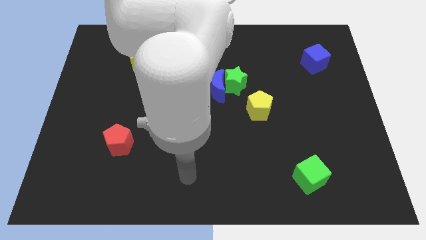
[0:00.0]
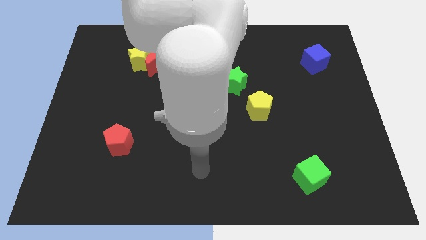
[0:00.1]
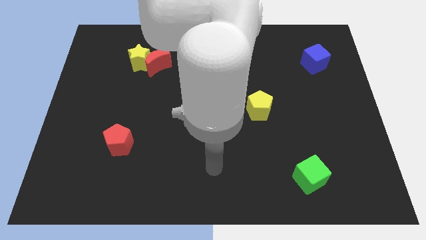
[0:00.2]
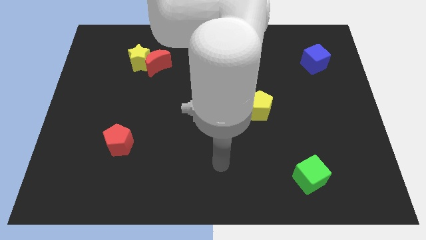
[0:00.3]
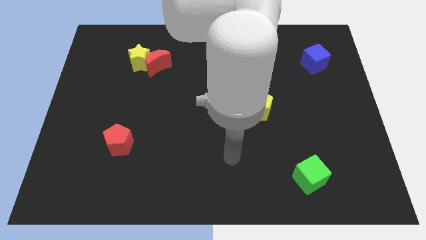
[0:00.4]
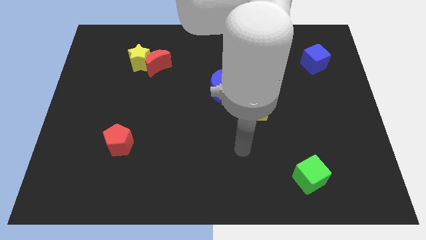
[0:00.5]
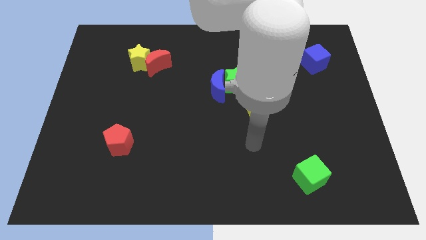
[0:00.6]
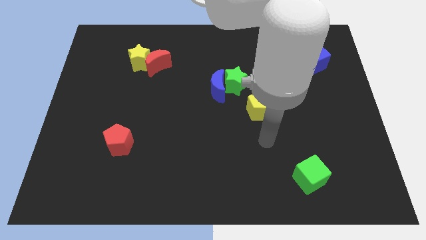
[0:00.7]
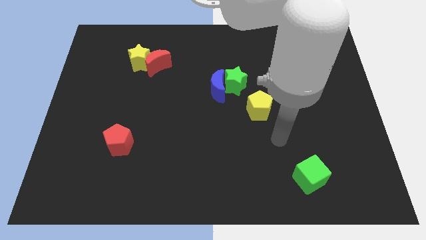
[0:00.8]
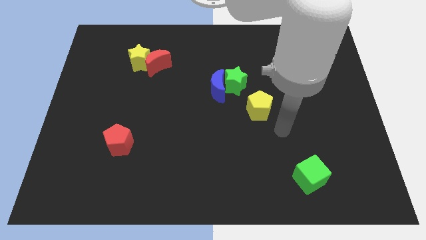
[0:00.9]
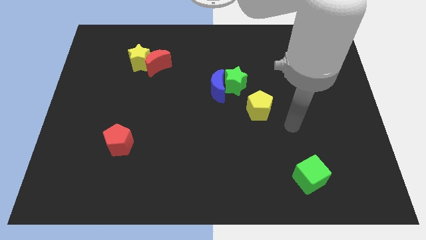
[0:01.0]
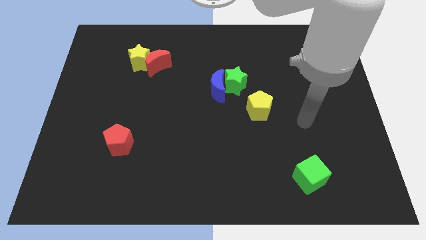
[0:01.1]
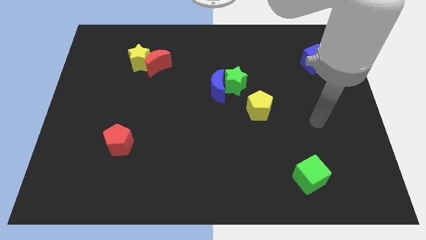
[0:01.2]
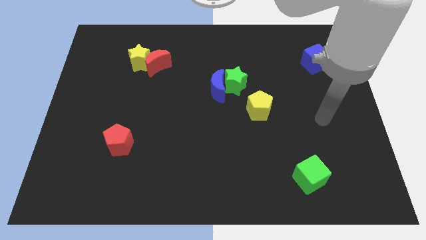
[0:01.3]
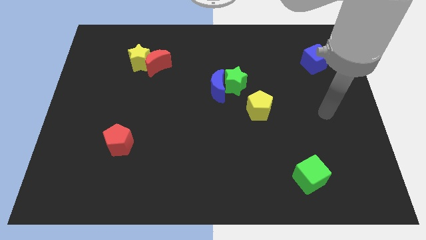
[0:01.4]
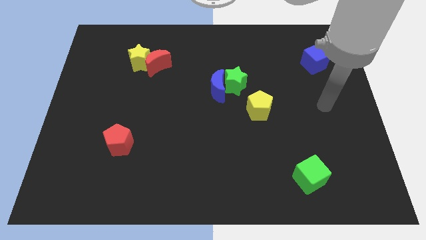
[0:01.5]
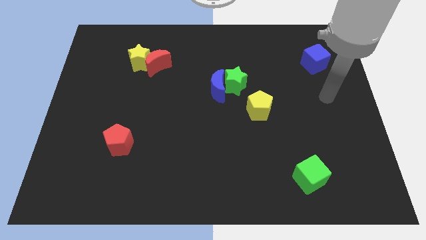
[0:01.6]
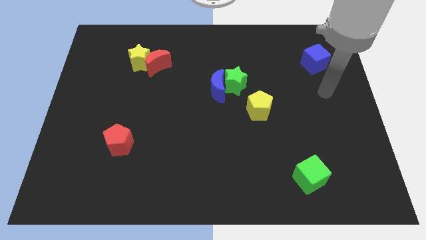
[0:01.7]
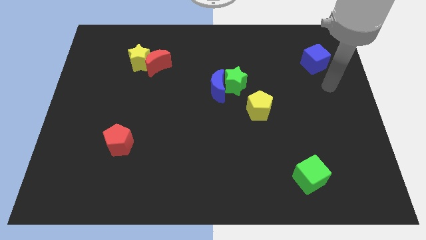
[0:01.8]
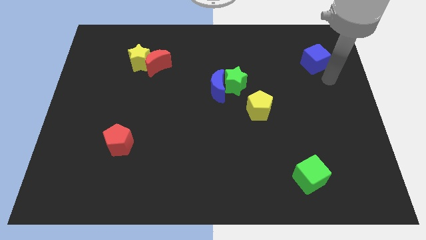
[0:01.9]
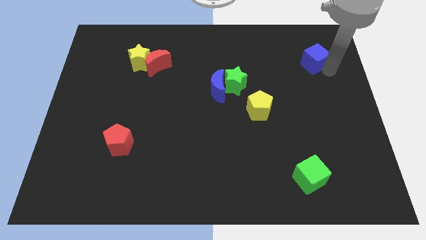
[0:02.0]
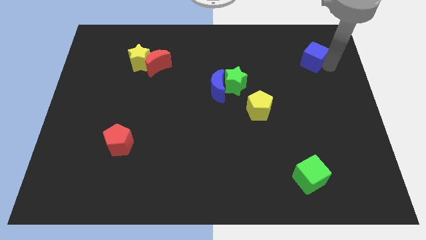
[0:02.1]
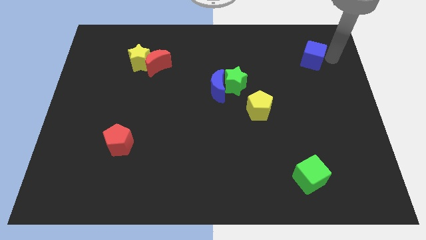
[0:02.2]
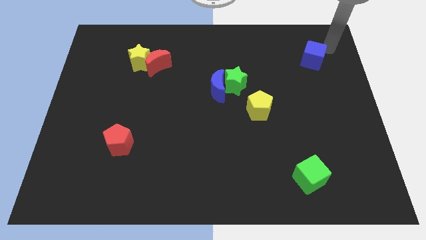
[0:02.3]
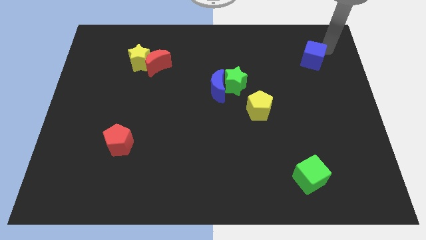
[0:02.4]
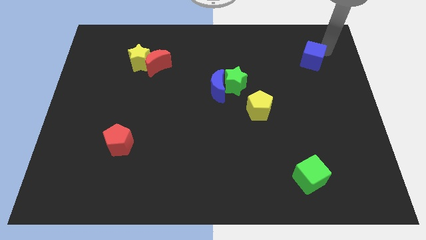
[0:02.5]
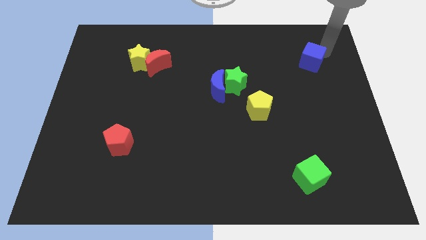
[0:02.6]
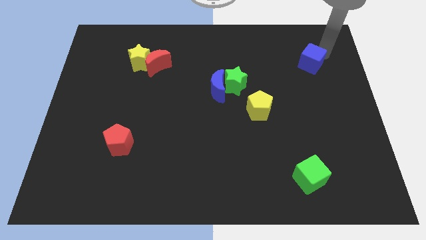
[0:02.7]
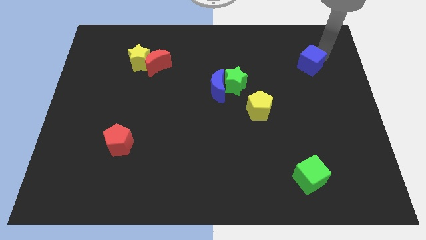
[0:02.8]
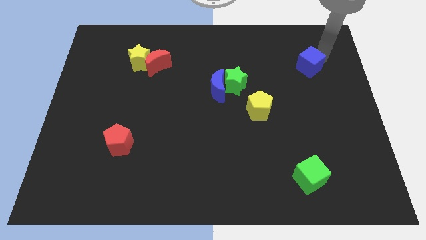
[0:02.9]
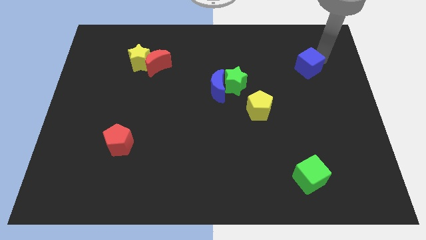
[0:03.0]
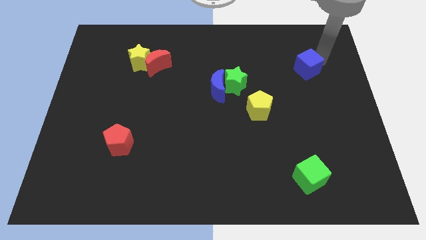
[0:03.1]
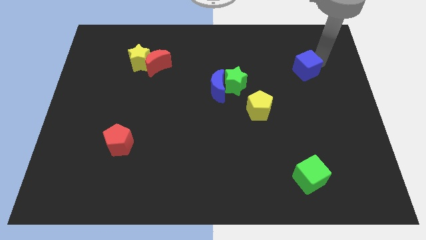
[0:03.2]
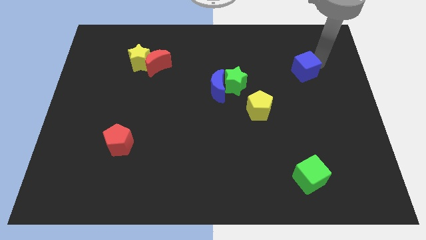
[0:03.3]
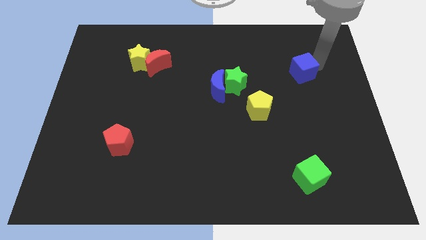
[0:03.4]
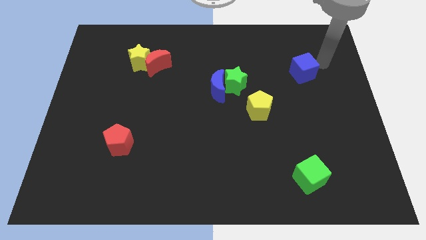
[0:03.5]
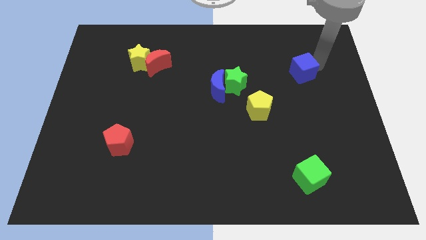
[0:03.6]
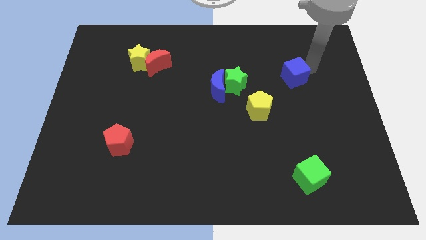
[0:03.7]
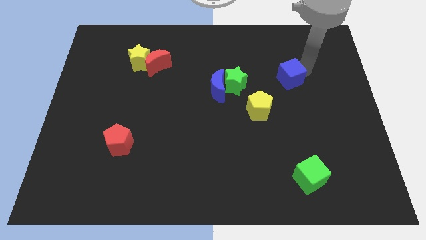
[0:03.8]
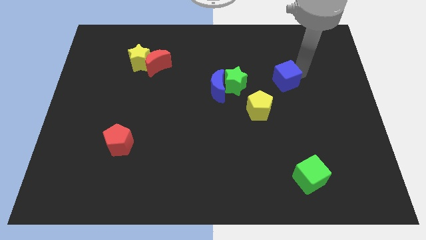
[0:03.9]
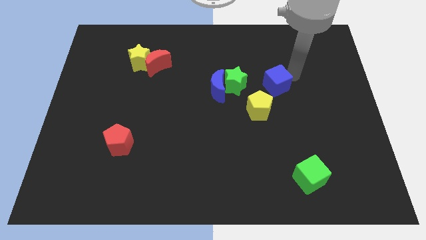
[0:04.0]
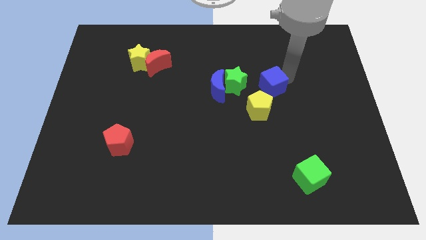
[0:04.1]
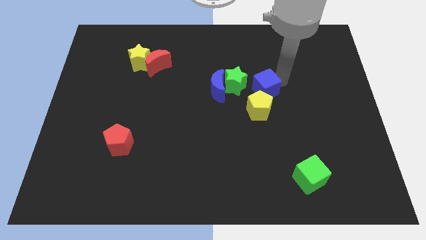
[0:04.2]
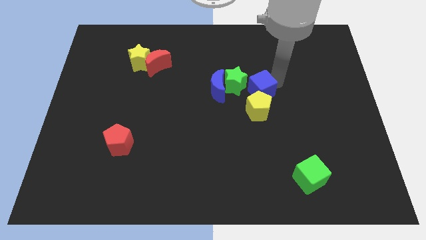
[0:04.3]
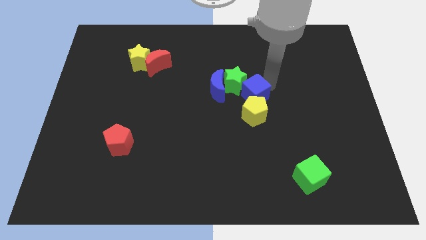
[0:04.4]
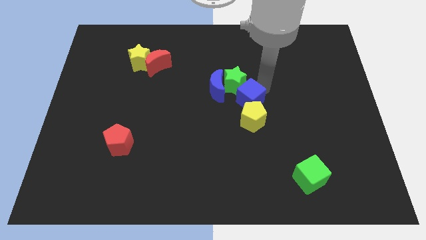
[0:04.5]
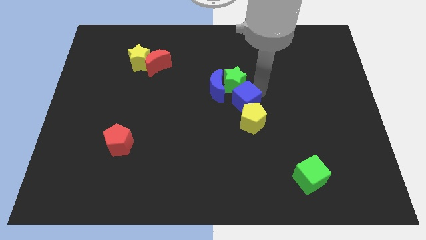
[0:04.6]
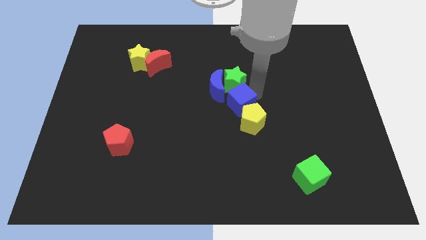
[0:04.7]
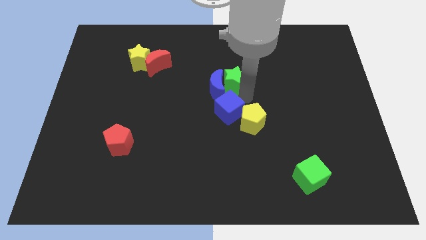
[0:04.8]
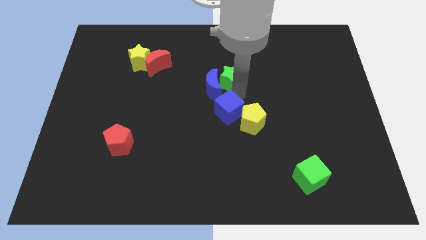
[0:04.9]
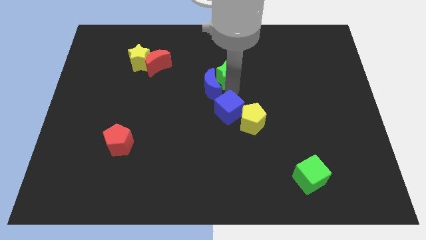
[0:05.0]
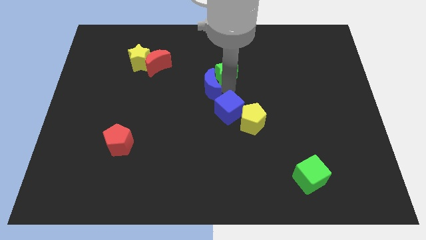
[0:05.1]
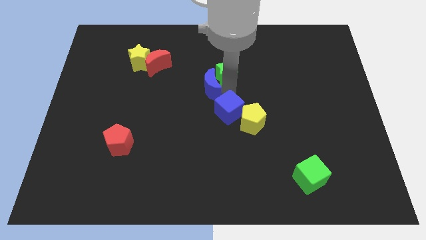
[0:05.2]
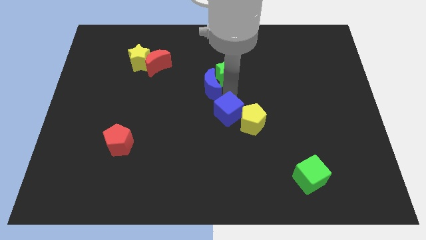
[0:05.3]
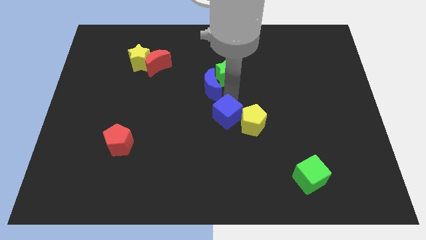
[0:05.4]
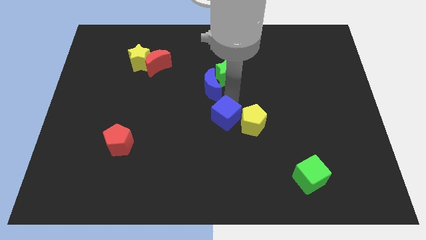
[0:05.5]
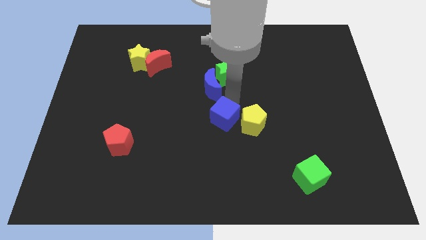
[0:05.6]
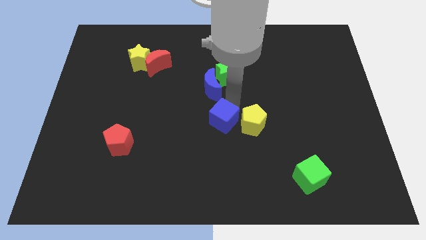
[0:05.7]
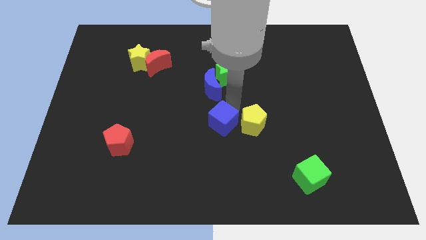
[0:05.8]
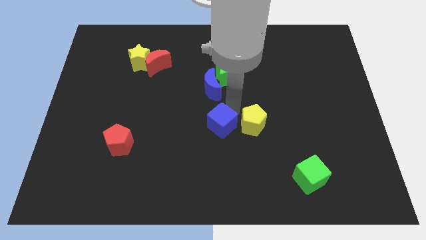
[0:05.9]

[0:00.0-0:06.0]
move the blue cube diagonally down and to the left of the yellow pentagon

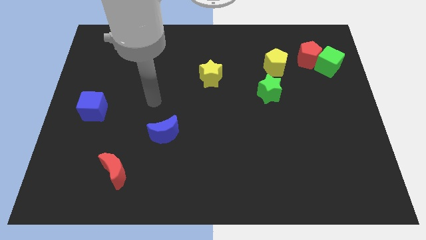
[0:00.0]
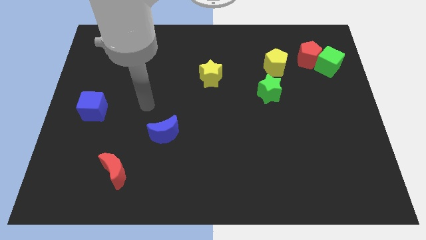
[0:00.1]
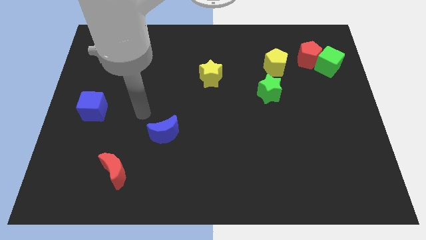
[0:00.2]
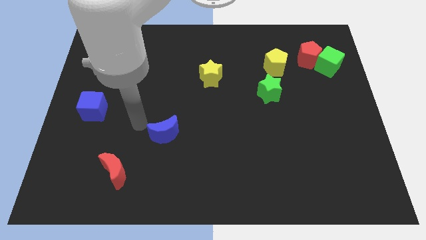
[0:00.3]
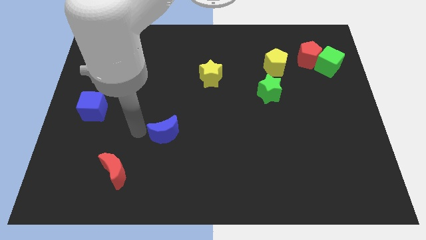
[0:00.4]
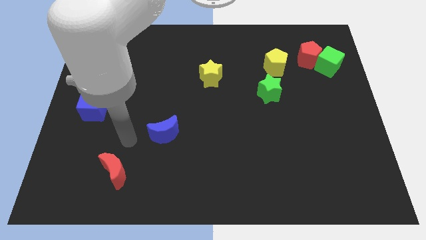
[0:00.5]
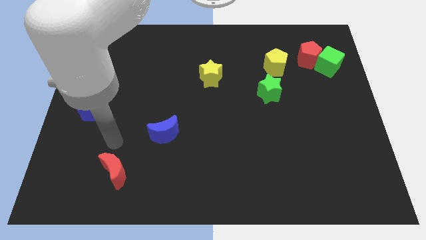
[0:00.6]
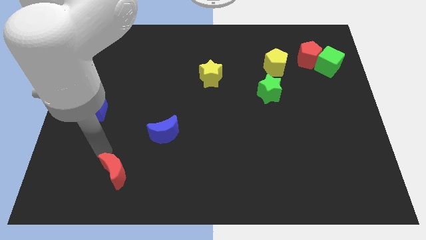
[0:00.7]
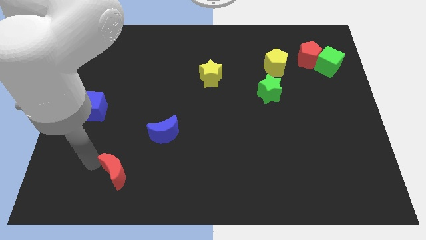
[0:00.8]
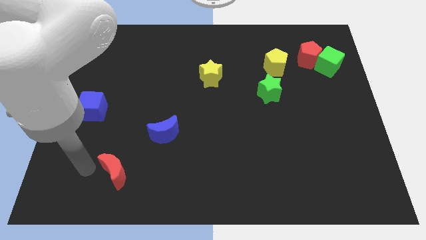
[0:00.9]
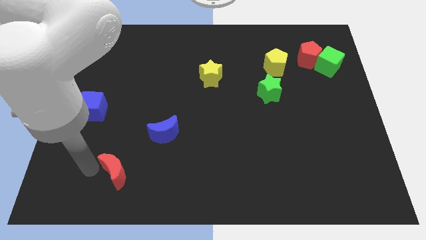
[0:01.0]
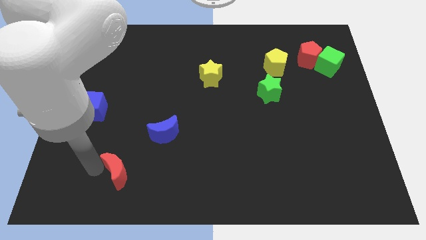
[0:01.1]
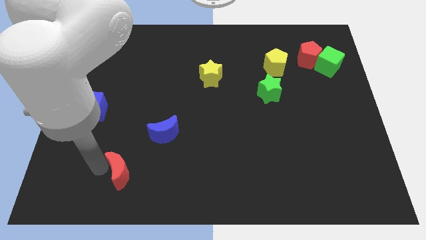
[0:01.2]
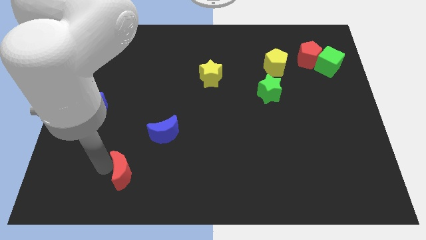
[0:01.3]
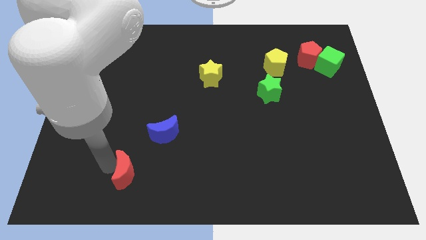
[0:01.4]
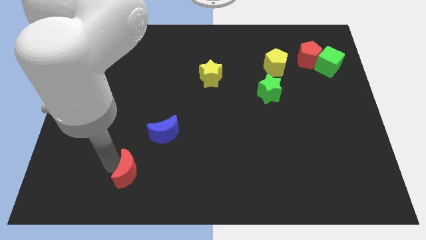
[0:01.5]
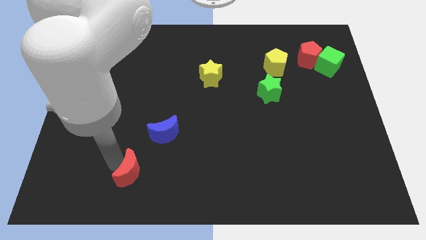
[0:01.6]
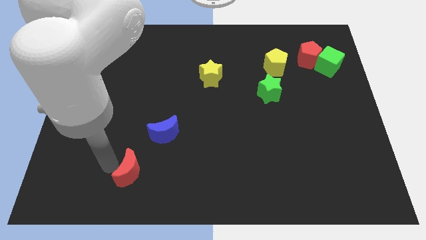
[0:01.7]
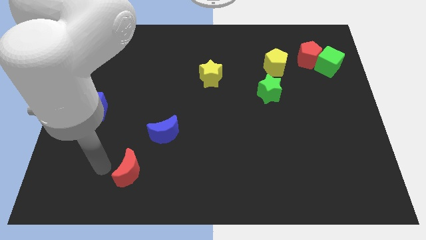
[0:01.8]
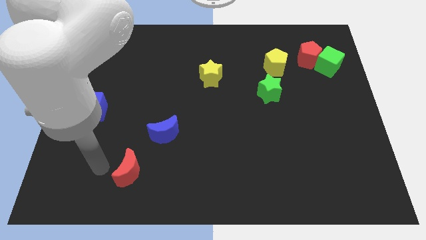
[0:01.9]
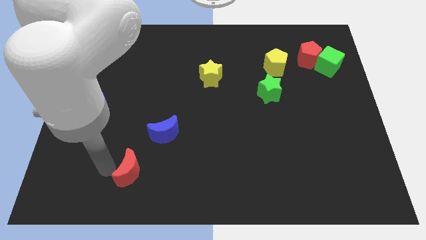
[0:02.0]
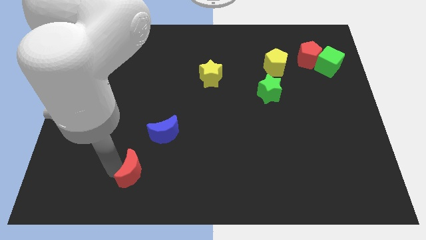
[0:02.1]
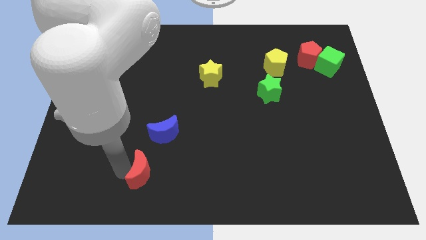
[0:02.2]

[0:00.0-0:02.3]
put the red moon to the bottom of the blue moon

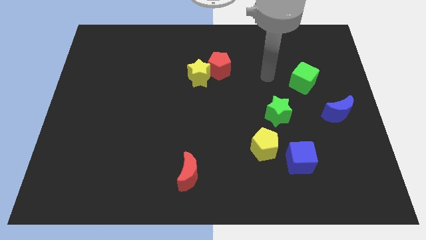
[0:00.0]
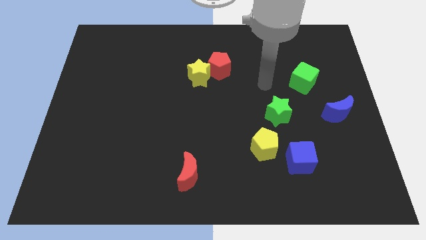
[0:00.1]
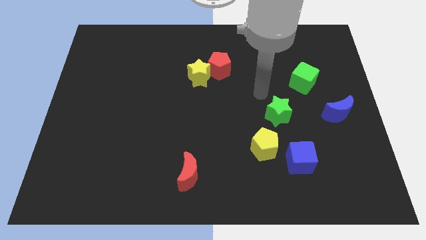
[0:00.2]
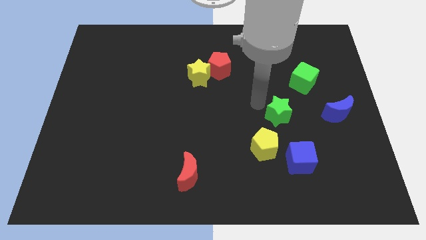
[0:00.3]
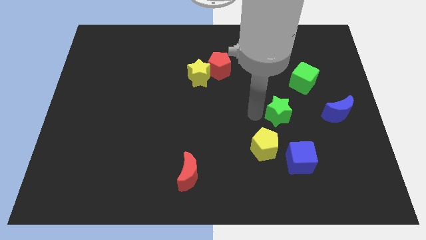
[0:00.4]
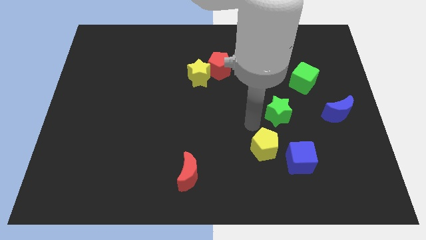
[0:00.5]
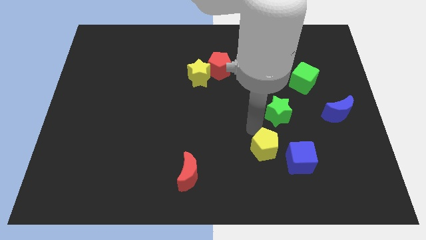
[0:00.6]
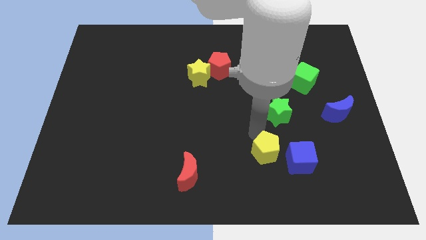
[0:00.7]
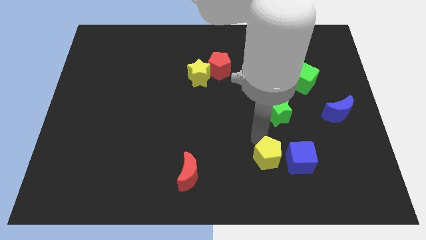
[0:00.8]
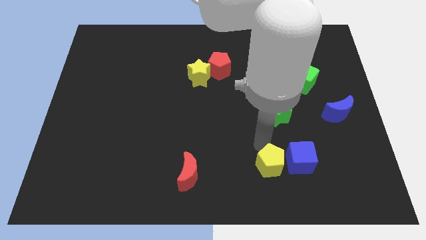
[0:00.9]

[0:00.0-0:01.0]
slide the yellow pentagon to the bottom left of the blue cube
